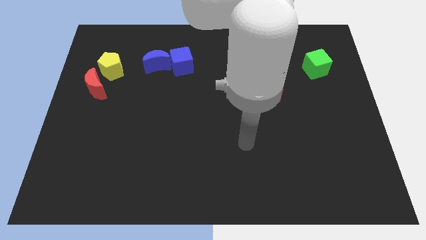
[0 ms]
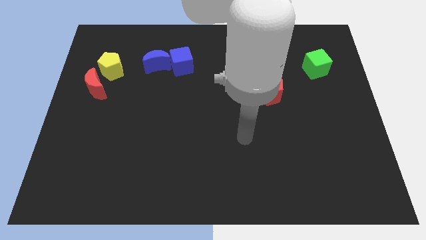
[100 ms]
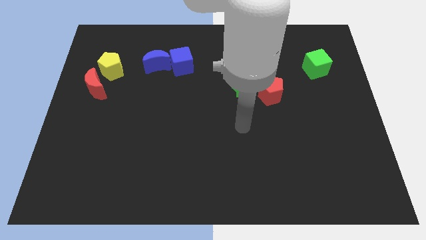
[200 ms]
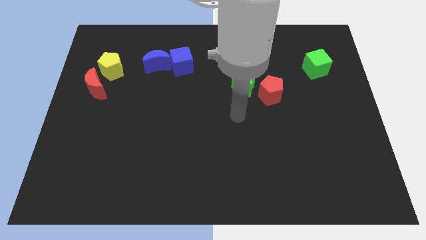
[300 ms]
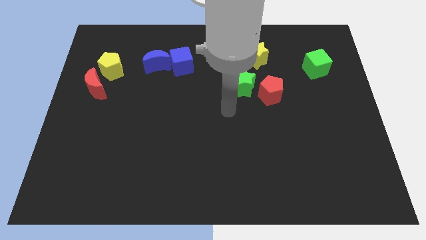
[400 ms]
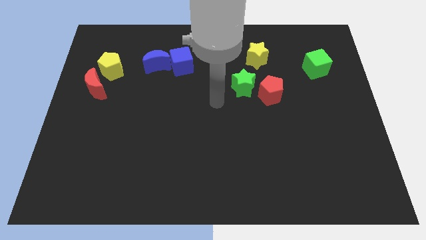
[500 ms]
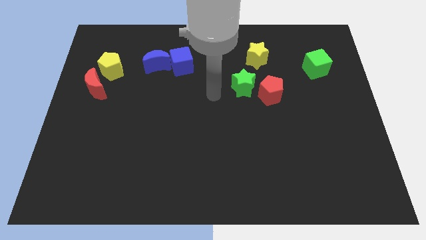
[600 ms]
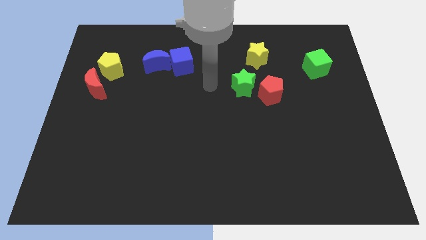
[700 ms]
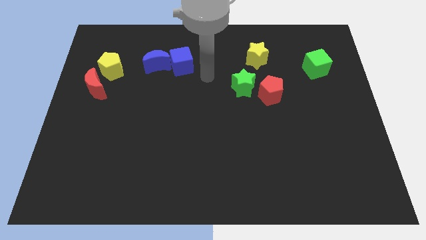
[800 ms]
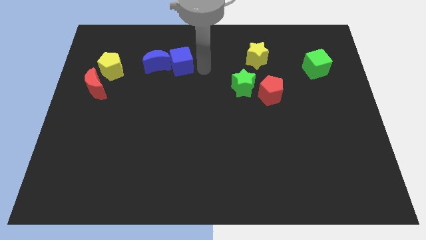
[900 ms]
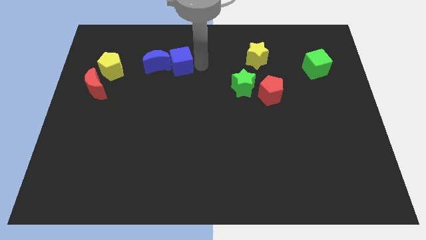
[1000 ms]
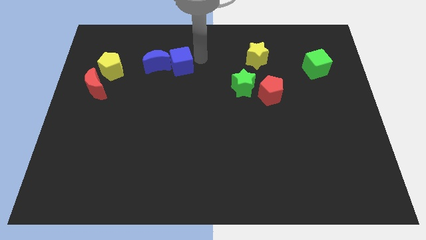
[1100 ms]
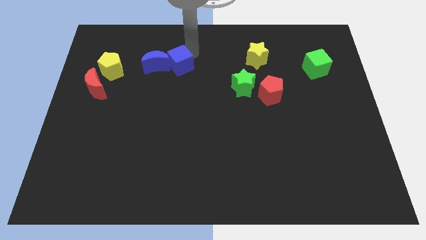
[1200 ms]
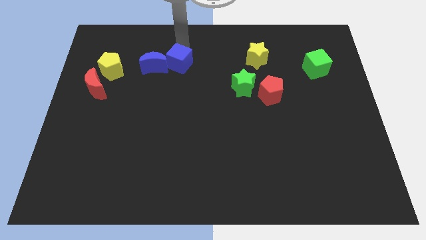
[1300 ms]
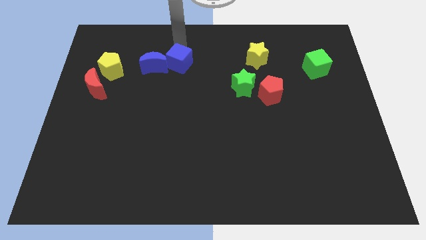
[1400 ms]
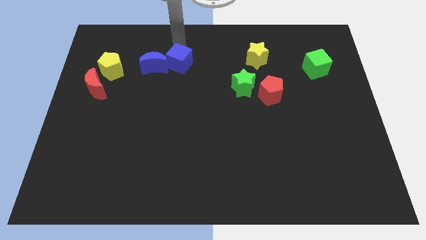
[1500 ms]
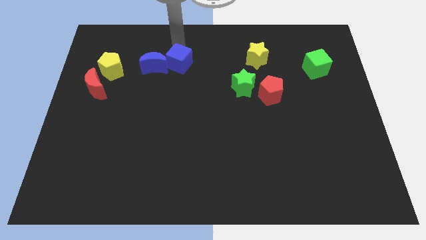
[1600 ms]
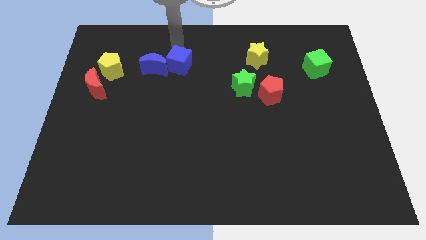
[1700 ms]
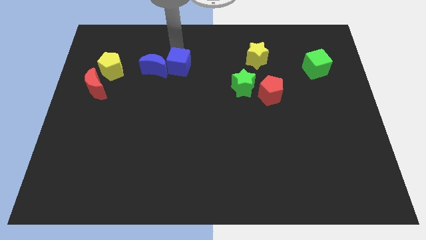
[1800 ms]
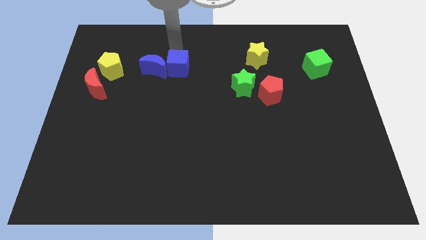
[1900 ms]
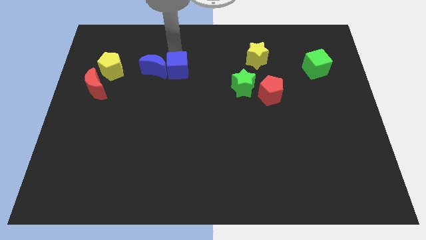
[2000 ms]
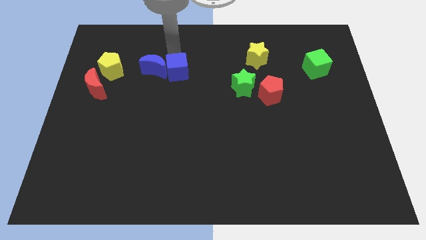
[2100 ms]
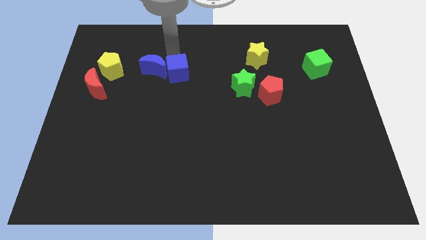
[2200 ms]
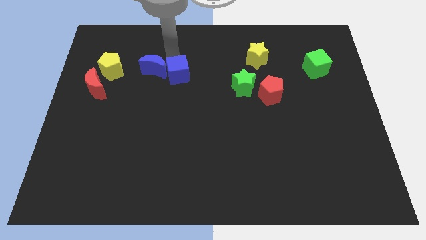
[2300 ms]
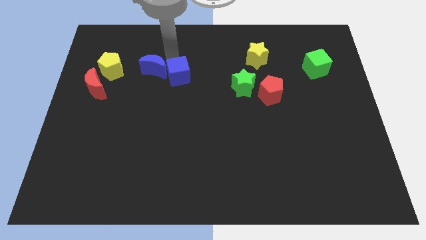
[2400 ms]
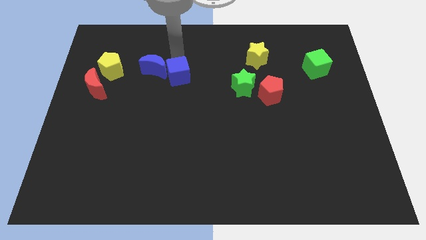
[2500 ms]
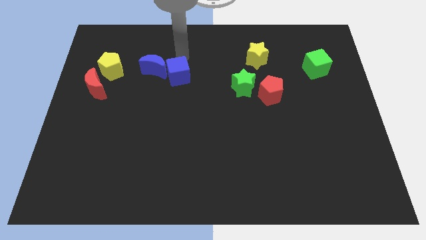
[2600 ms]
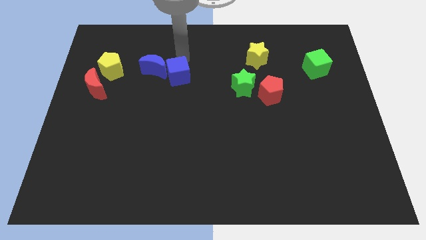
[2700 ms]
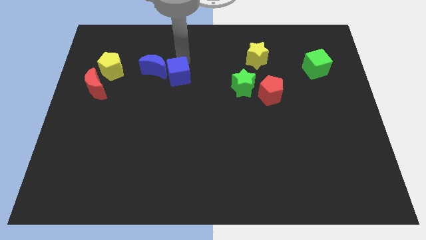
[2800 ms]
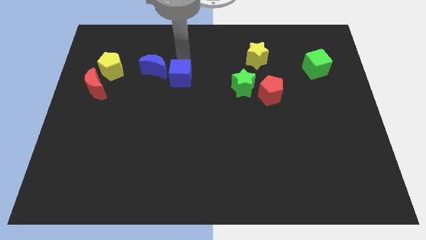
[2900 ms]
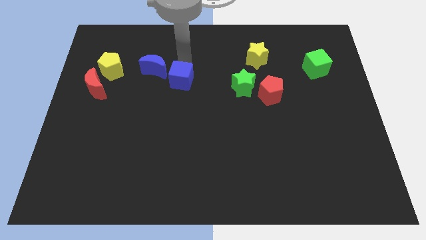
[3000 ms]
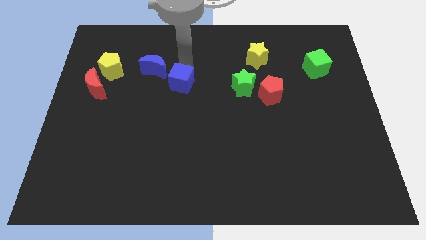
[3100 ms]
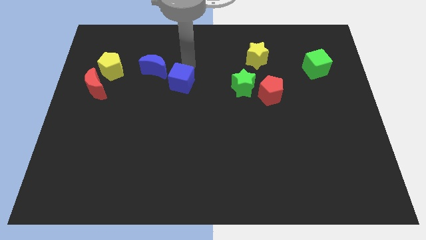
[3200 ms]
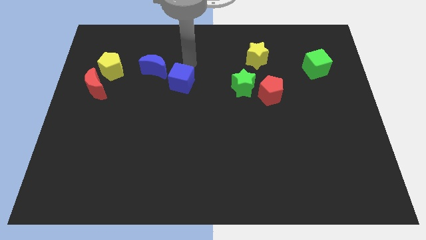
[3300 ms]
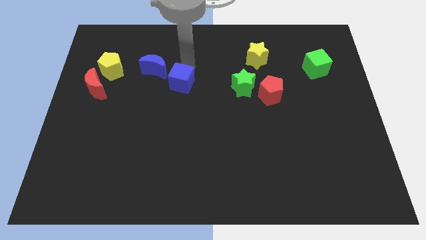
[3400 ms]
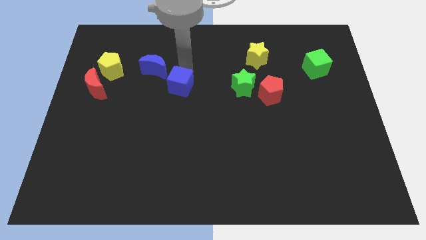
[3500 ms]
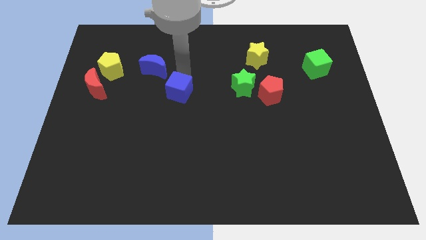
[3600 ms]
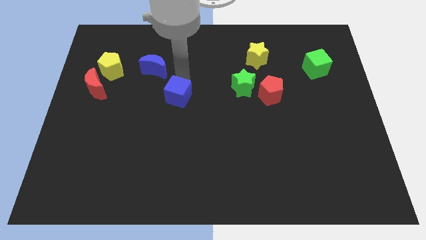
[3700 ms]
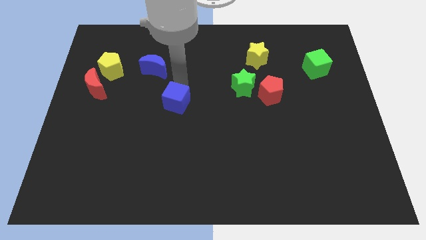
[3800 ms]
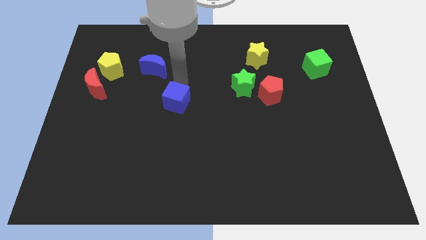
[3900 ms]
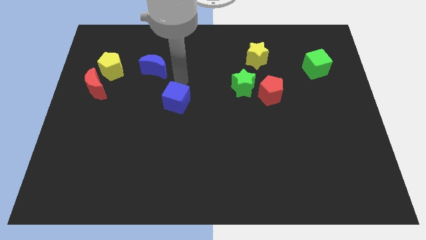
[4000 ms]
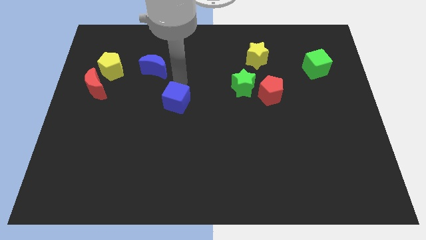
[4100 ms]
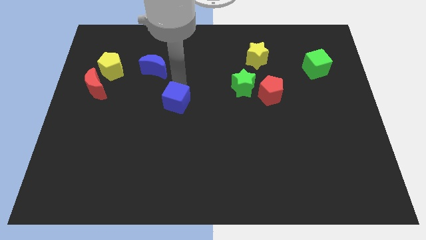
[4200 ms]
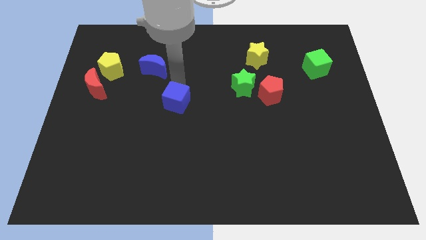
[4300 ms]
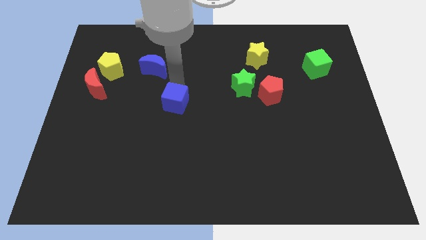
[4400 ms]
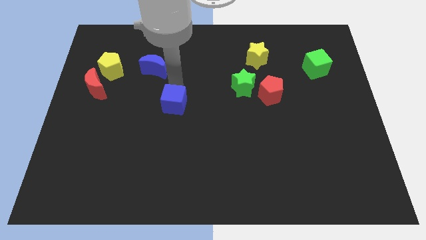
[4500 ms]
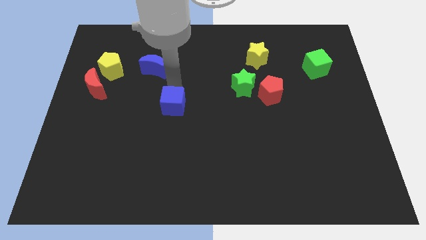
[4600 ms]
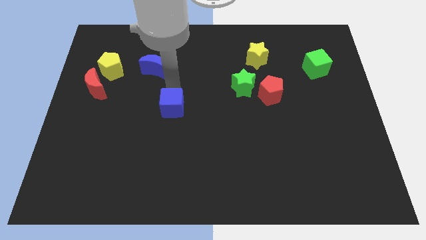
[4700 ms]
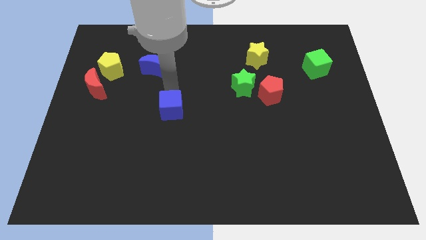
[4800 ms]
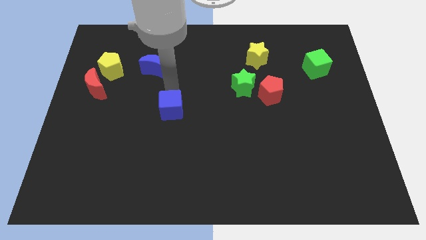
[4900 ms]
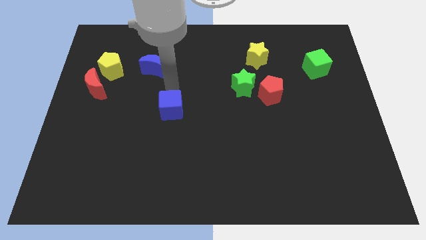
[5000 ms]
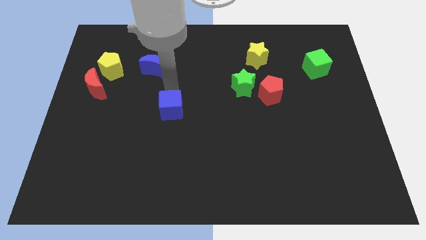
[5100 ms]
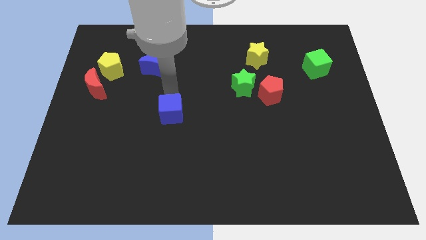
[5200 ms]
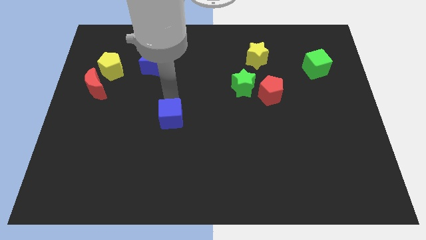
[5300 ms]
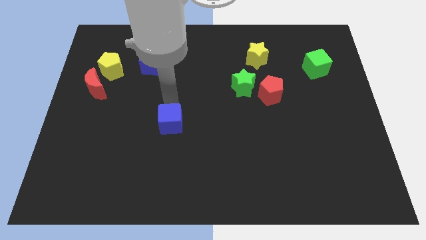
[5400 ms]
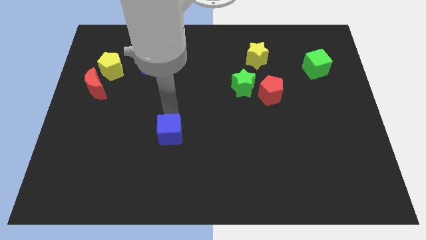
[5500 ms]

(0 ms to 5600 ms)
move the blue cube downwards

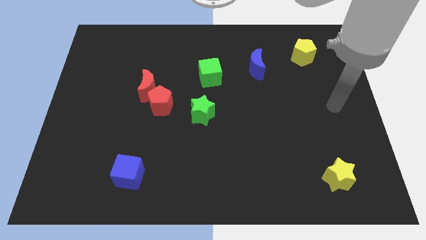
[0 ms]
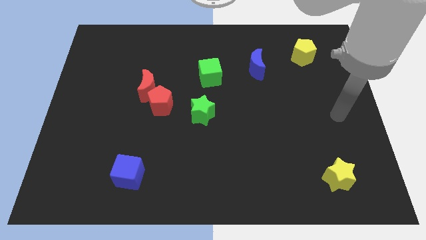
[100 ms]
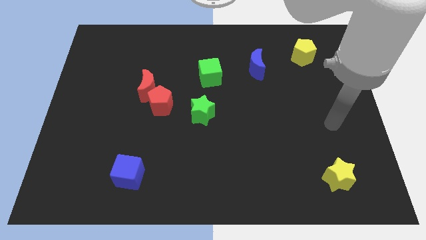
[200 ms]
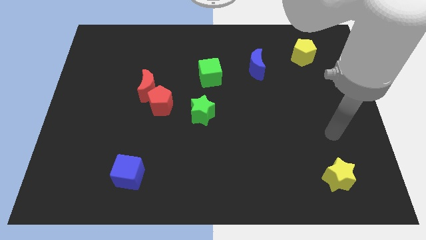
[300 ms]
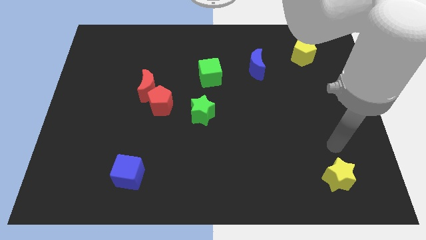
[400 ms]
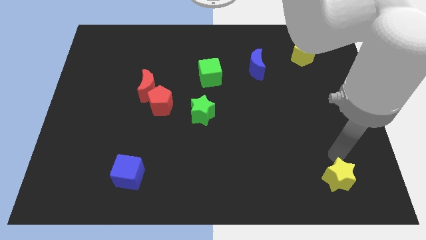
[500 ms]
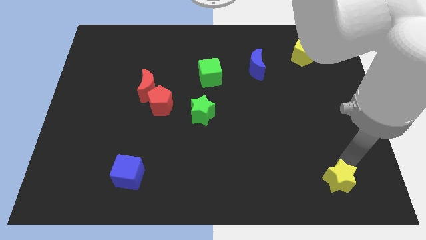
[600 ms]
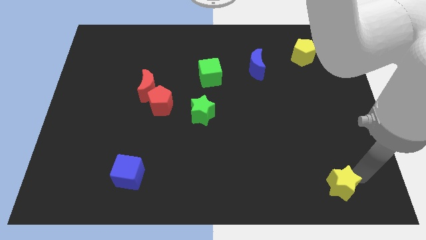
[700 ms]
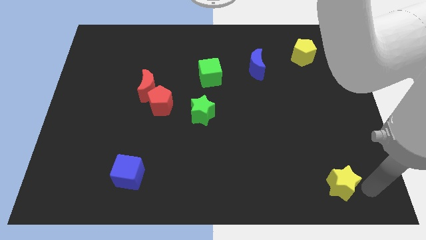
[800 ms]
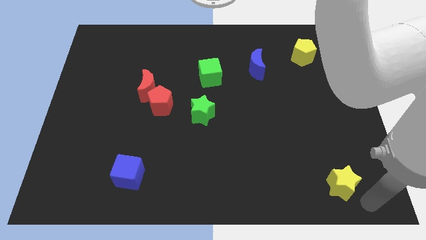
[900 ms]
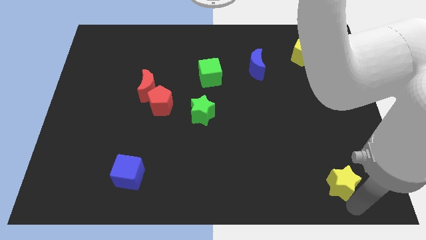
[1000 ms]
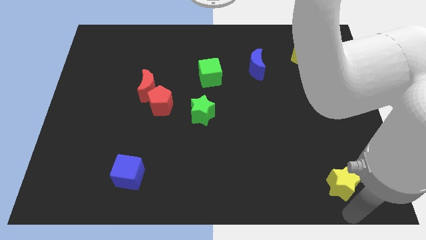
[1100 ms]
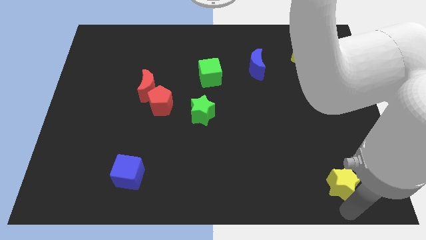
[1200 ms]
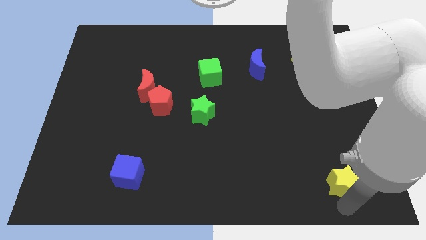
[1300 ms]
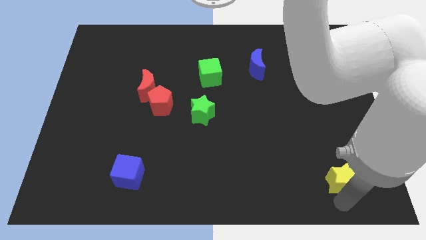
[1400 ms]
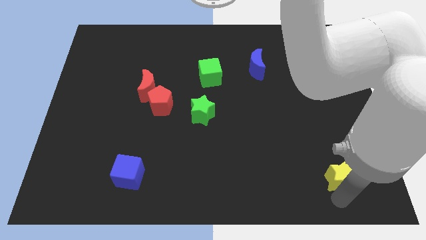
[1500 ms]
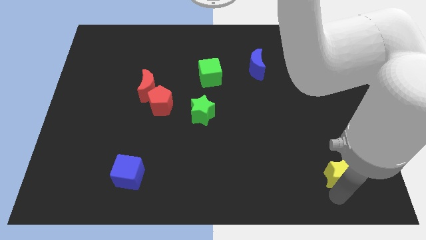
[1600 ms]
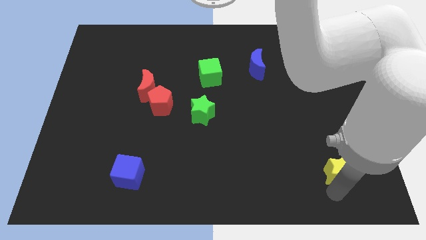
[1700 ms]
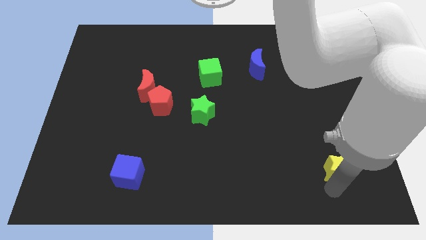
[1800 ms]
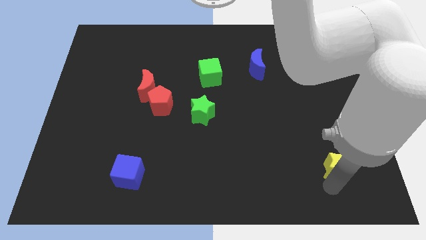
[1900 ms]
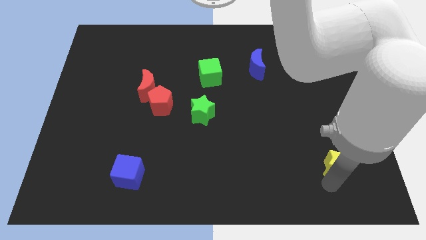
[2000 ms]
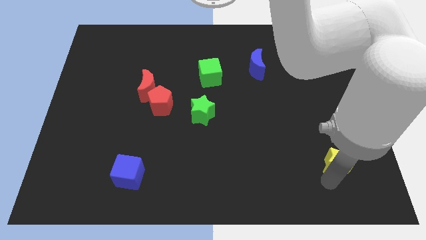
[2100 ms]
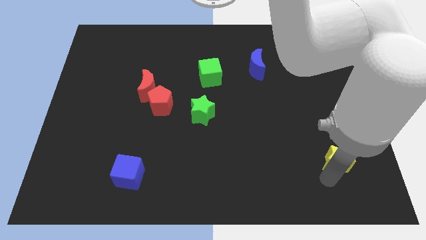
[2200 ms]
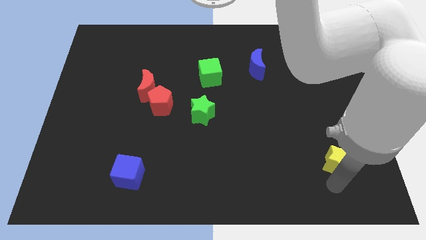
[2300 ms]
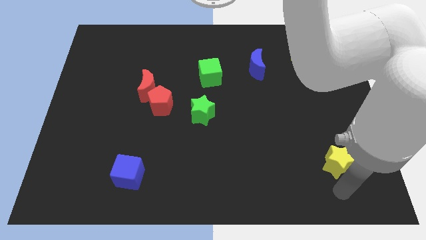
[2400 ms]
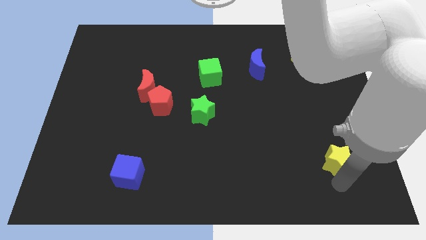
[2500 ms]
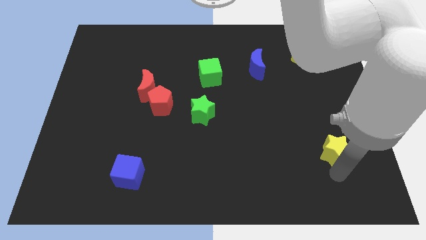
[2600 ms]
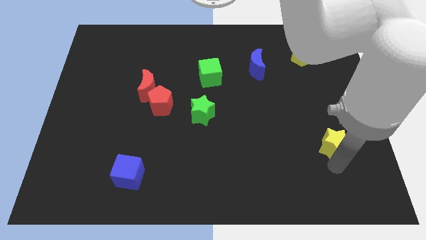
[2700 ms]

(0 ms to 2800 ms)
move the yellow star somewhat upwards
